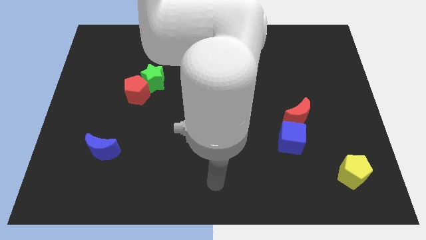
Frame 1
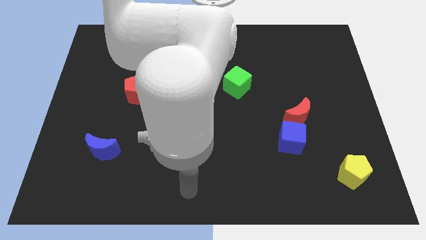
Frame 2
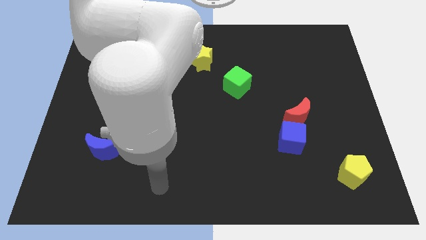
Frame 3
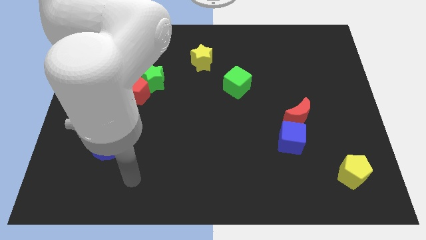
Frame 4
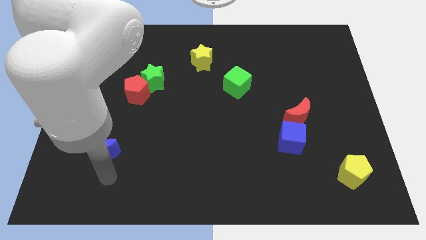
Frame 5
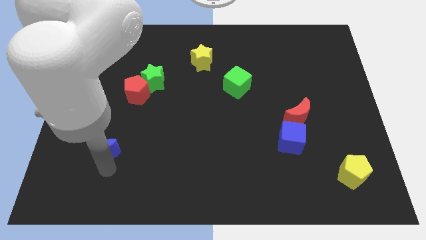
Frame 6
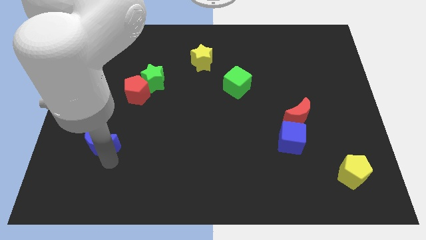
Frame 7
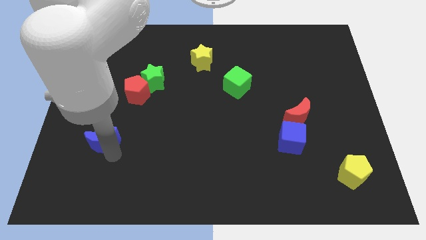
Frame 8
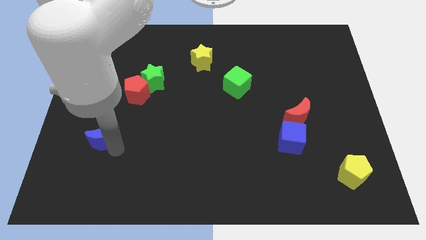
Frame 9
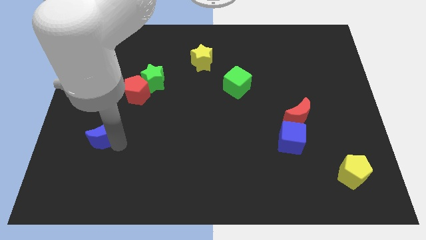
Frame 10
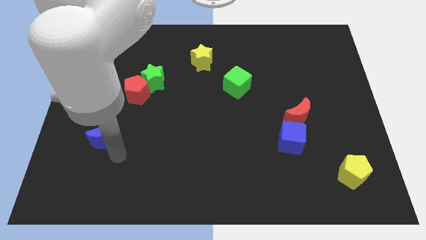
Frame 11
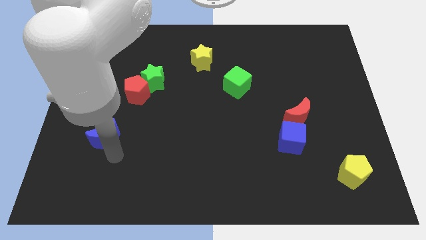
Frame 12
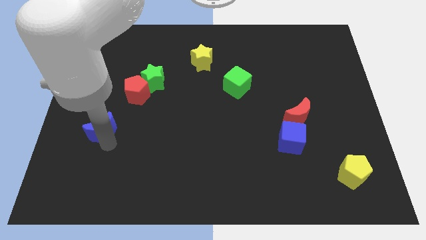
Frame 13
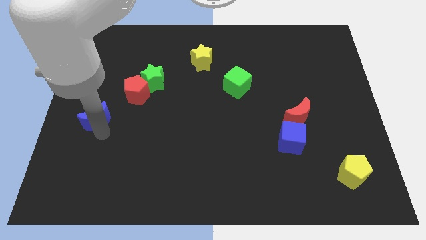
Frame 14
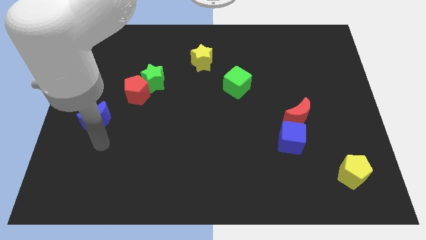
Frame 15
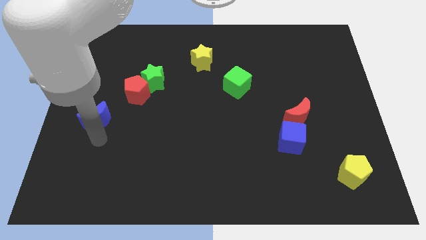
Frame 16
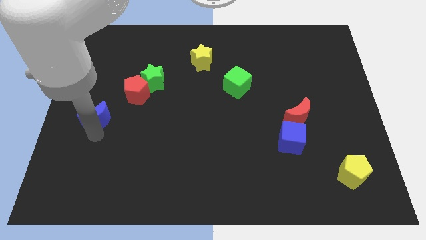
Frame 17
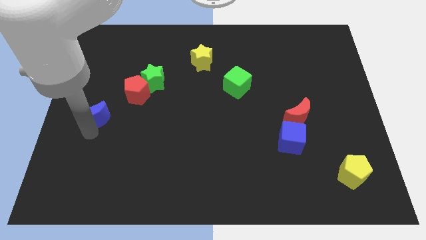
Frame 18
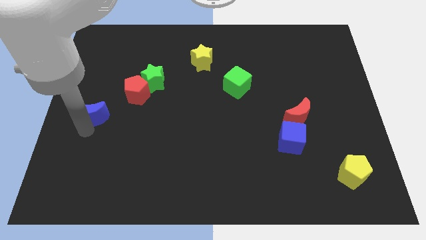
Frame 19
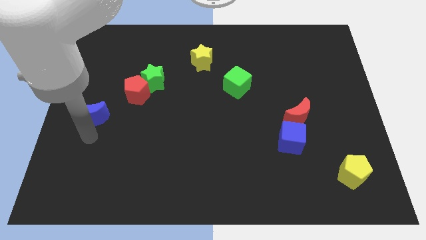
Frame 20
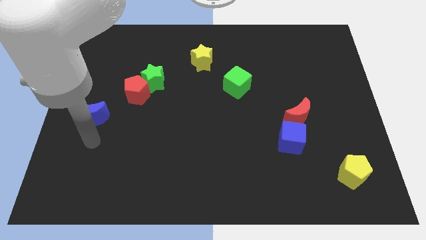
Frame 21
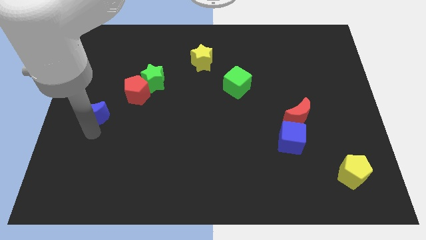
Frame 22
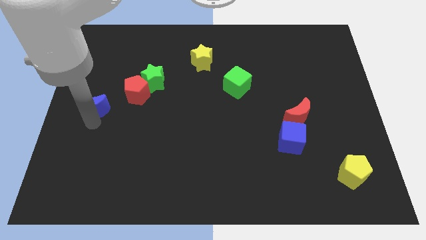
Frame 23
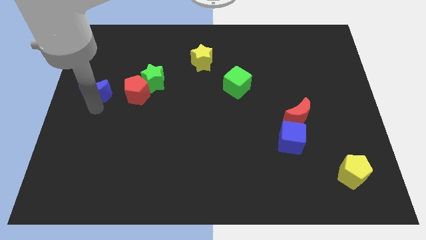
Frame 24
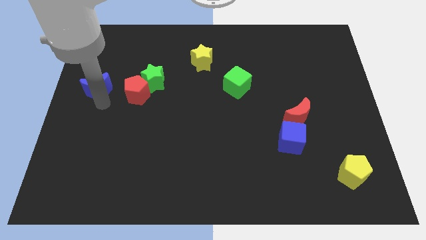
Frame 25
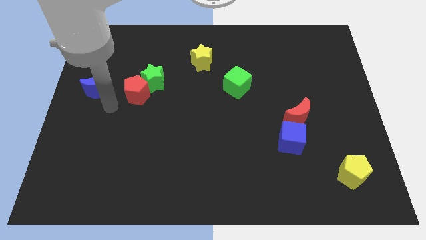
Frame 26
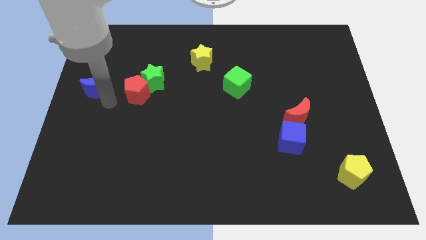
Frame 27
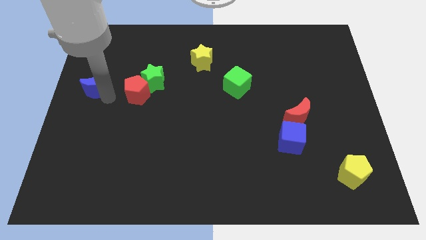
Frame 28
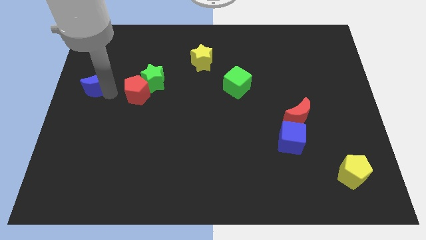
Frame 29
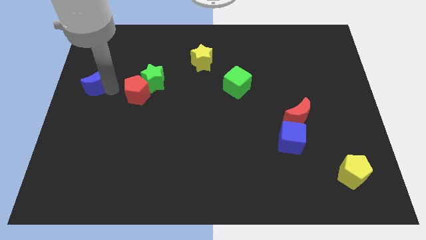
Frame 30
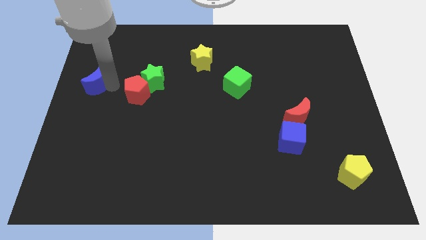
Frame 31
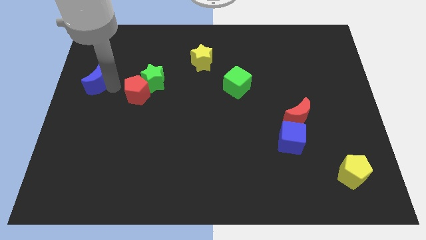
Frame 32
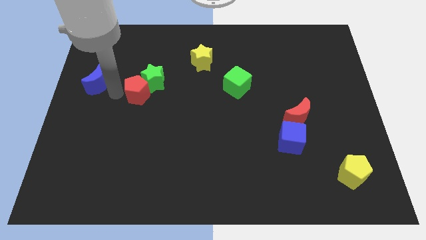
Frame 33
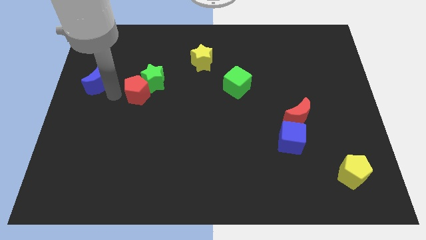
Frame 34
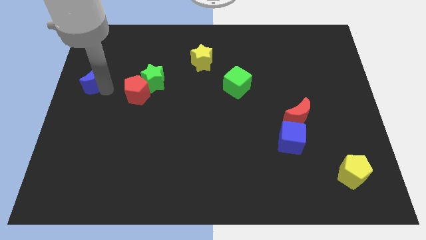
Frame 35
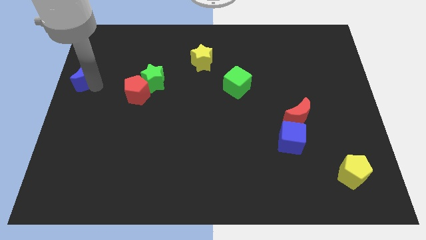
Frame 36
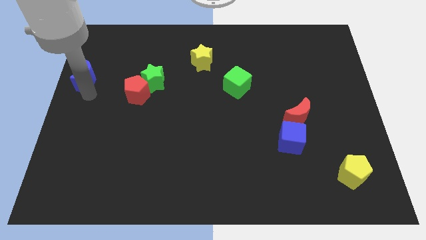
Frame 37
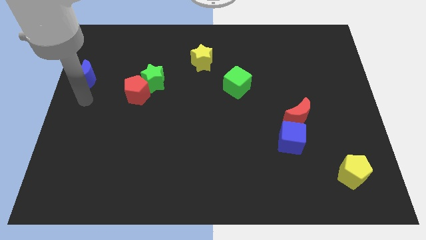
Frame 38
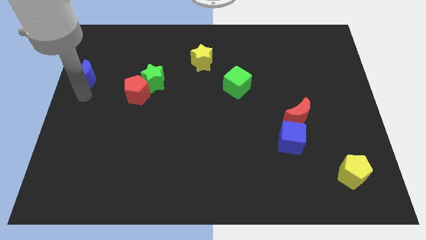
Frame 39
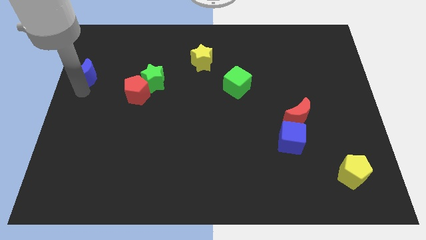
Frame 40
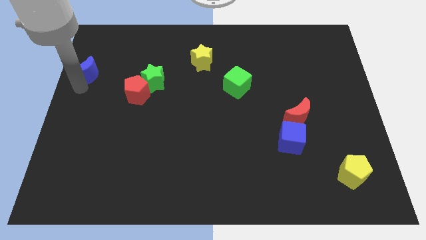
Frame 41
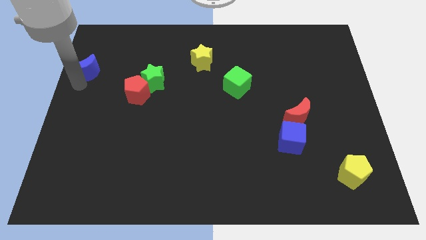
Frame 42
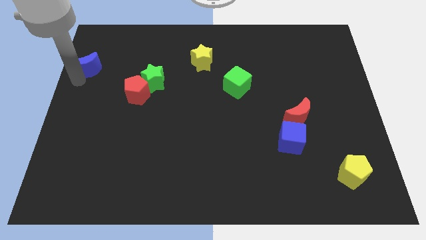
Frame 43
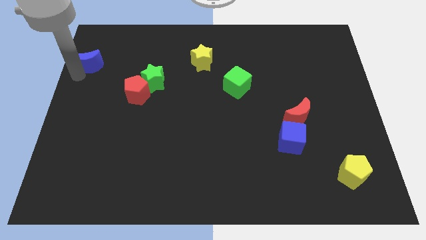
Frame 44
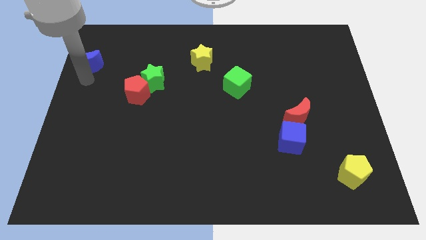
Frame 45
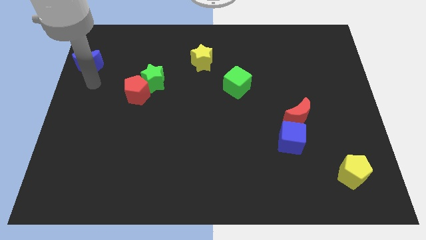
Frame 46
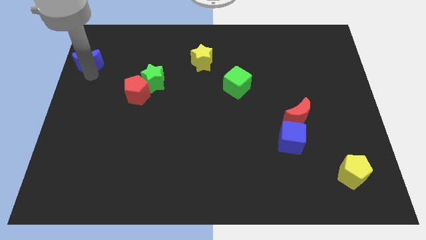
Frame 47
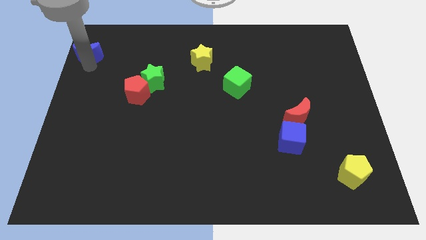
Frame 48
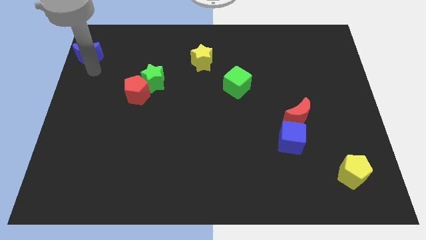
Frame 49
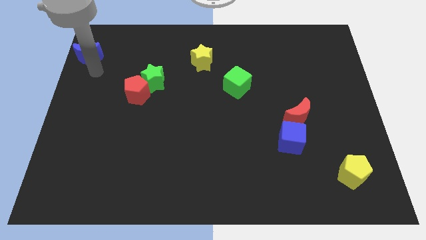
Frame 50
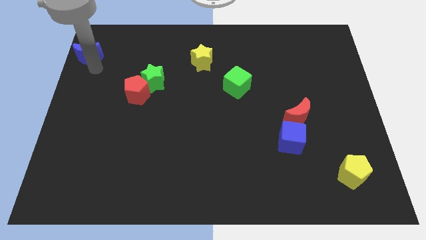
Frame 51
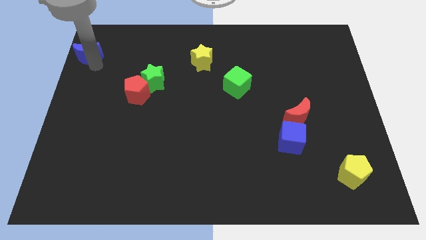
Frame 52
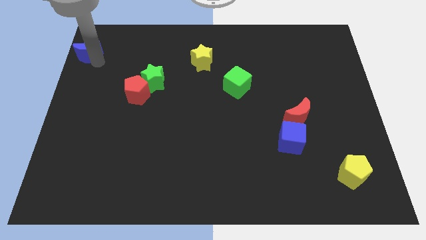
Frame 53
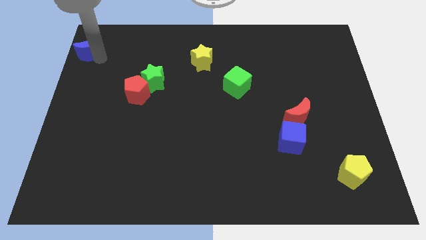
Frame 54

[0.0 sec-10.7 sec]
push the blue moon to the top left corner

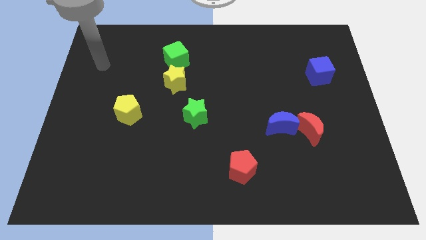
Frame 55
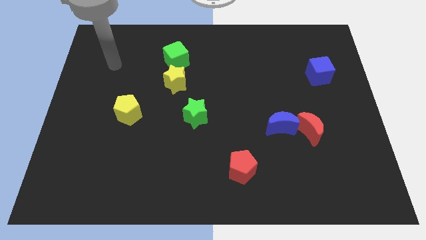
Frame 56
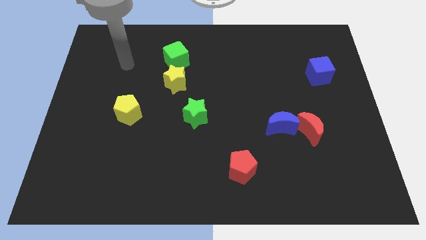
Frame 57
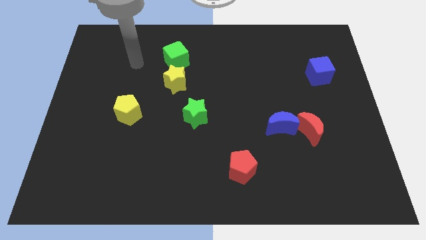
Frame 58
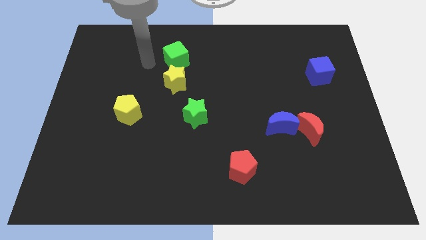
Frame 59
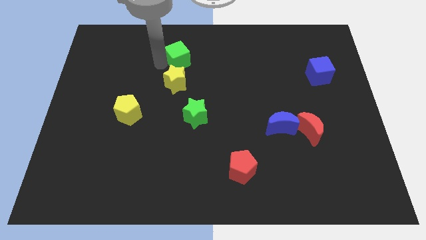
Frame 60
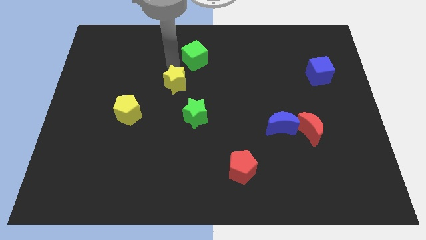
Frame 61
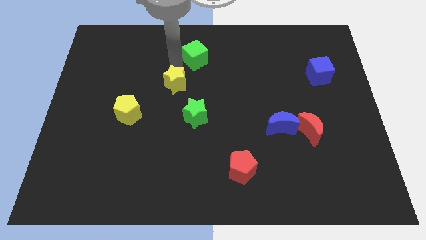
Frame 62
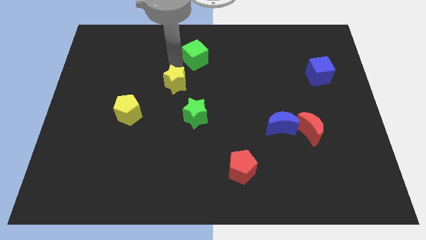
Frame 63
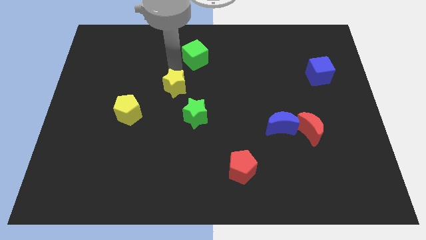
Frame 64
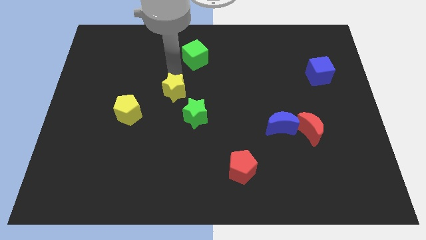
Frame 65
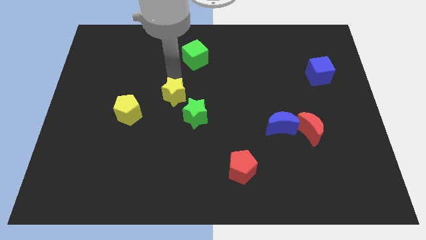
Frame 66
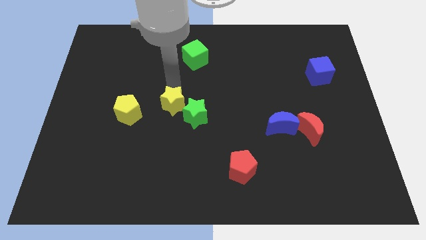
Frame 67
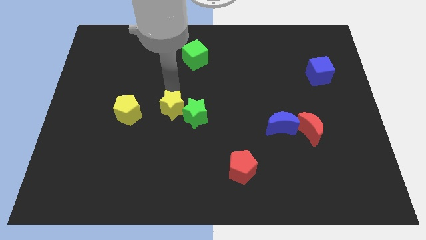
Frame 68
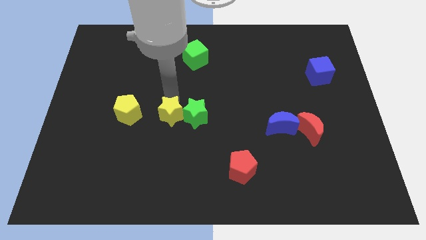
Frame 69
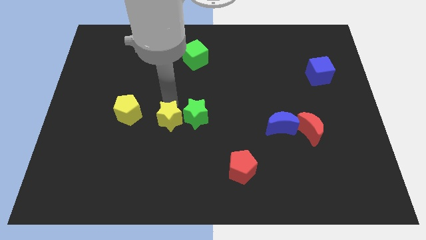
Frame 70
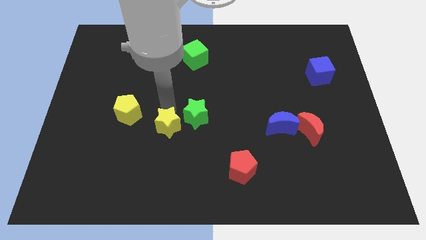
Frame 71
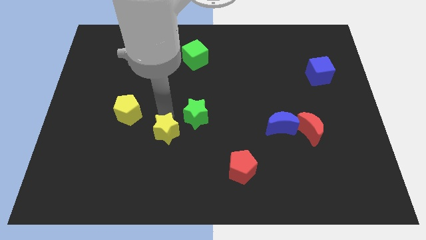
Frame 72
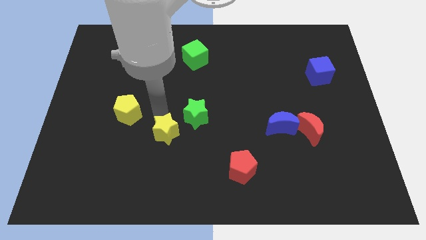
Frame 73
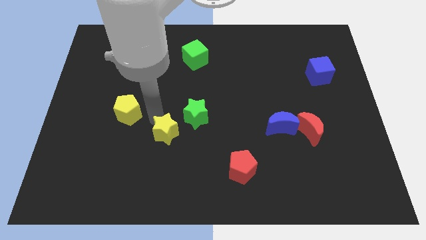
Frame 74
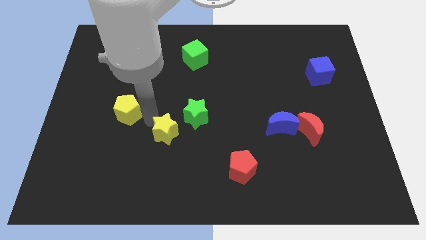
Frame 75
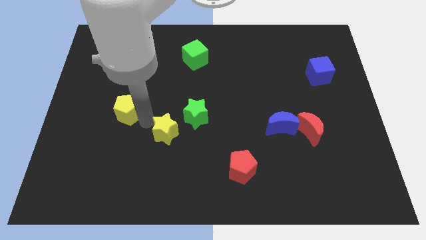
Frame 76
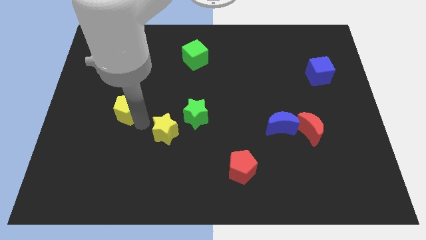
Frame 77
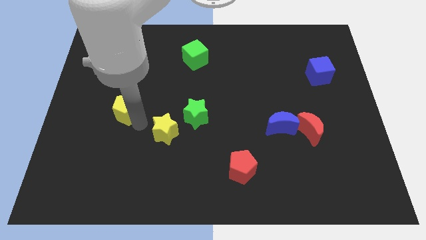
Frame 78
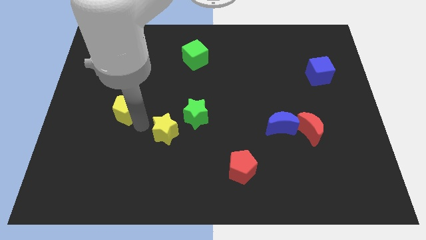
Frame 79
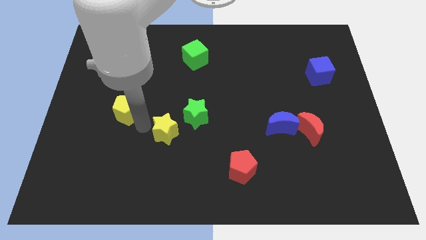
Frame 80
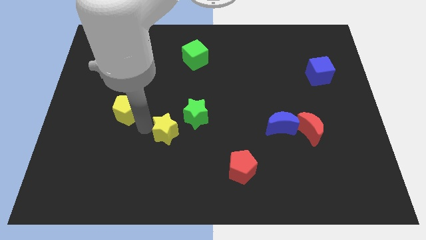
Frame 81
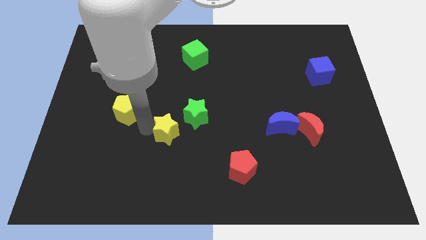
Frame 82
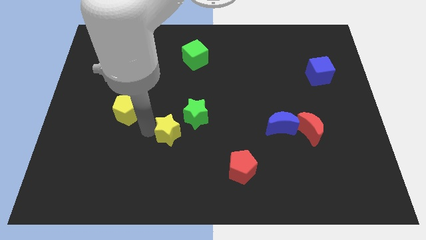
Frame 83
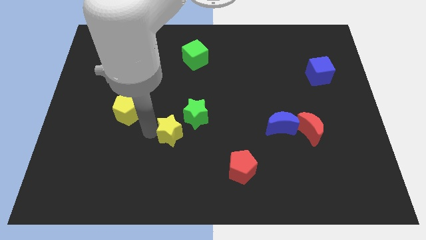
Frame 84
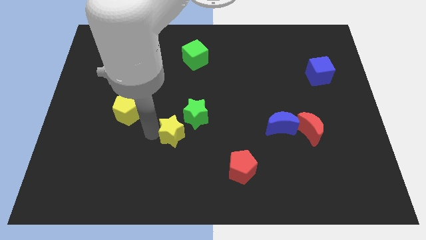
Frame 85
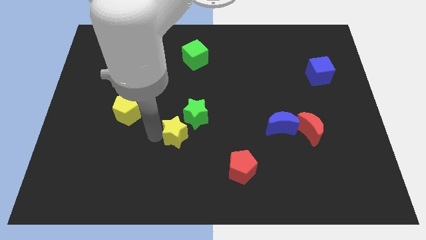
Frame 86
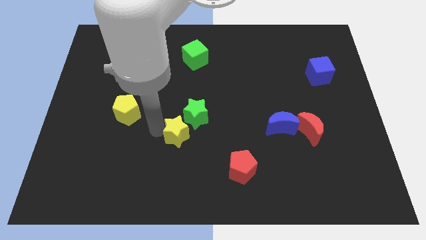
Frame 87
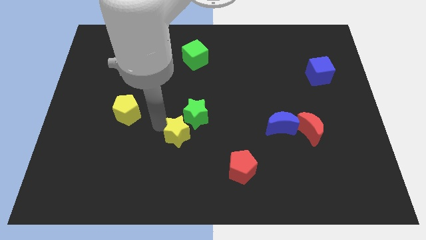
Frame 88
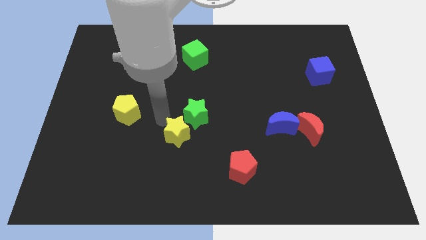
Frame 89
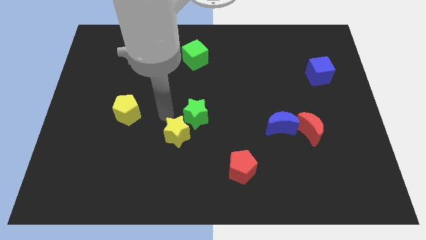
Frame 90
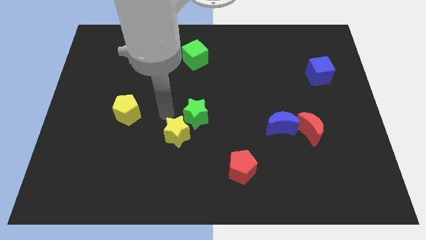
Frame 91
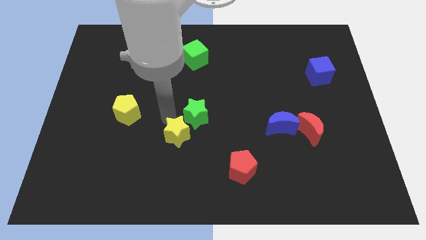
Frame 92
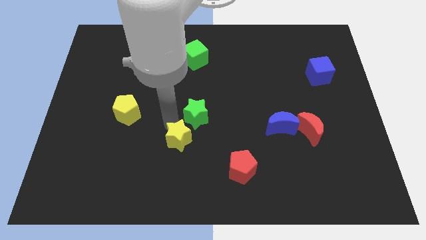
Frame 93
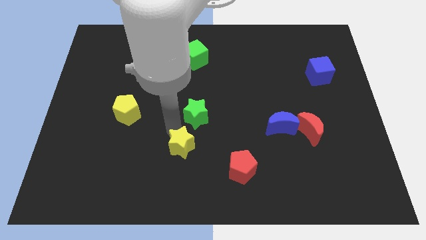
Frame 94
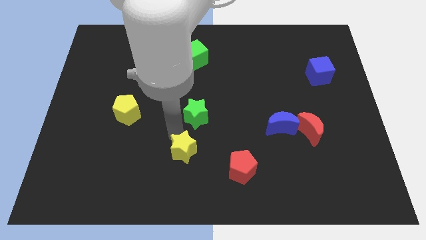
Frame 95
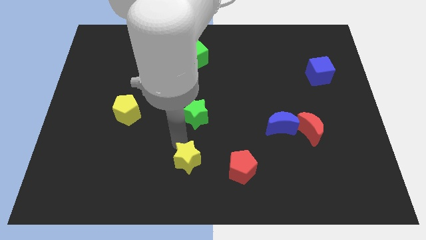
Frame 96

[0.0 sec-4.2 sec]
slide the yellow star to the bottom side
